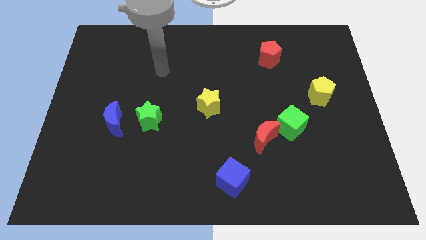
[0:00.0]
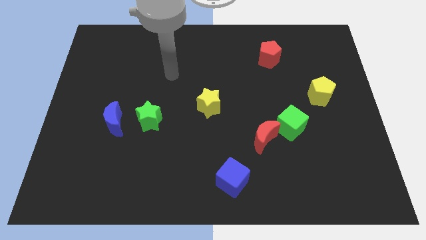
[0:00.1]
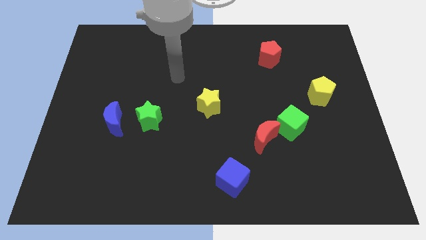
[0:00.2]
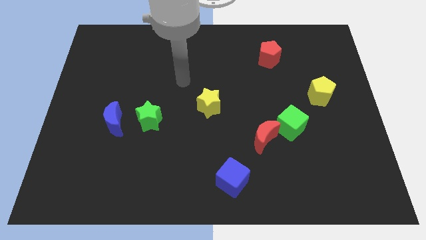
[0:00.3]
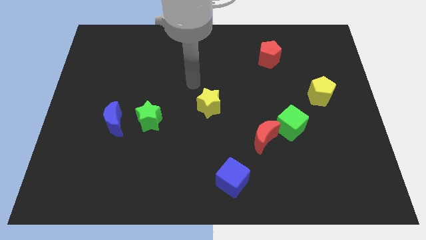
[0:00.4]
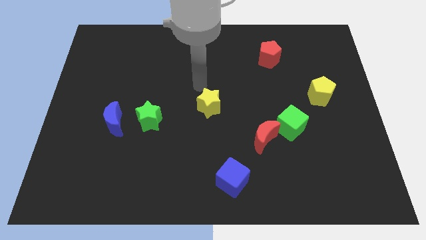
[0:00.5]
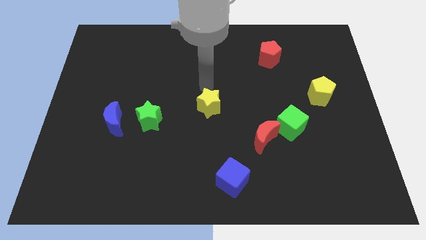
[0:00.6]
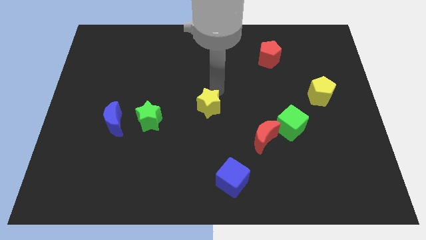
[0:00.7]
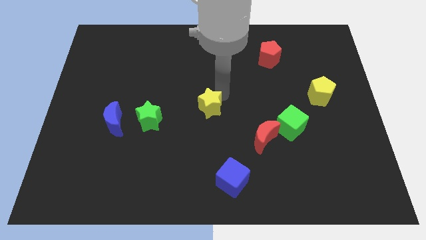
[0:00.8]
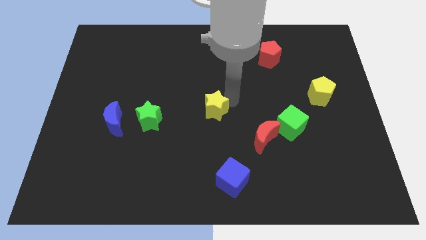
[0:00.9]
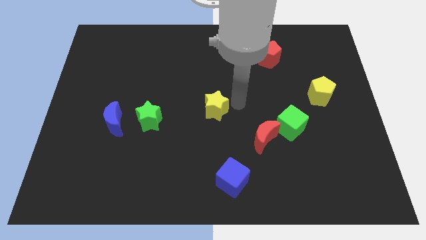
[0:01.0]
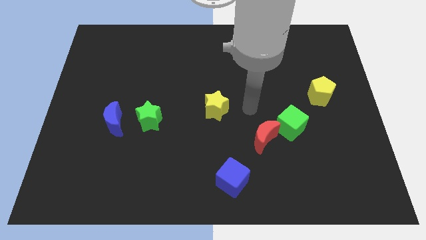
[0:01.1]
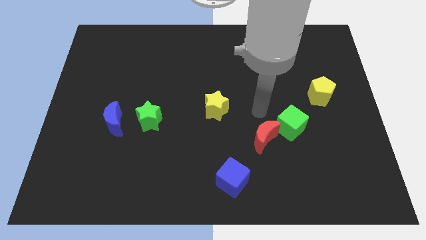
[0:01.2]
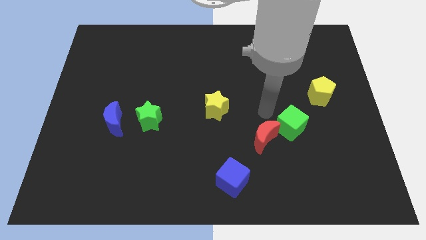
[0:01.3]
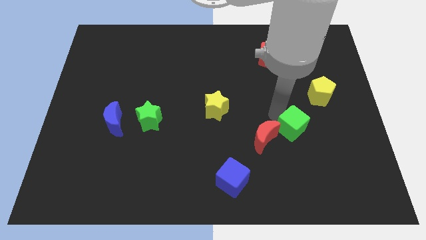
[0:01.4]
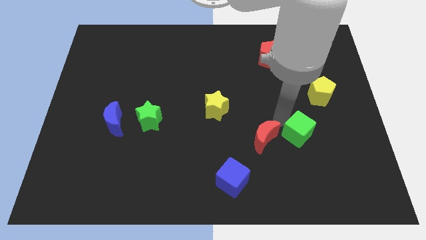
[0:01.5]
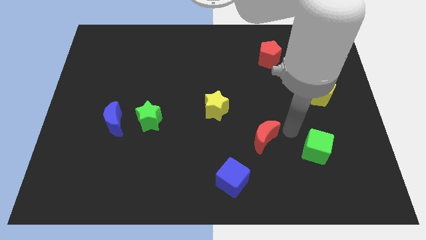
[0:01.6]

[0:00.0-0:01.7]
move the red moon away from the green cube

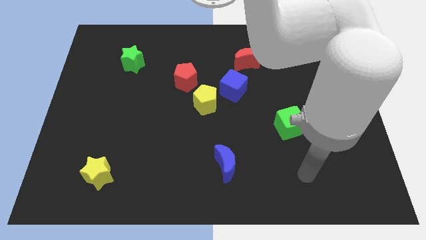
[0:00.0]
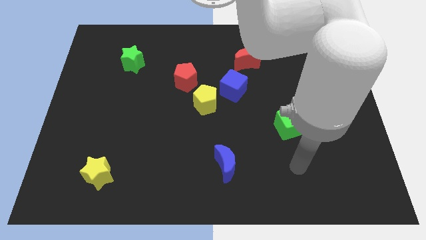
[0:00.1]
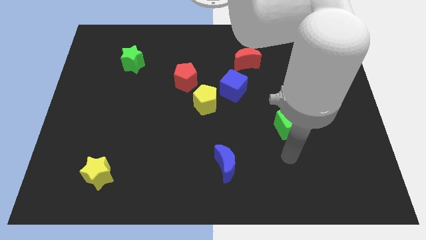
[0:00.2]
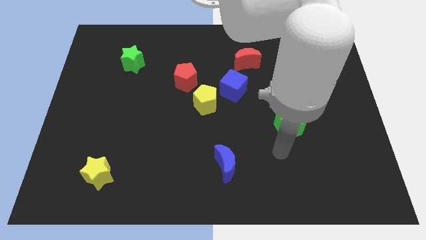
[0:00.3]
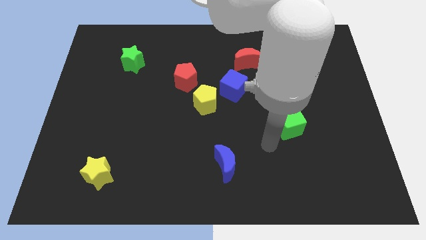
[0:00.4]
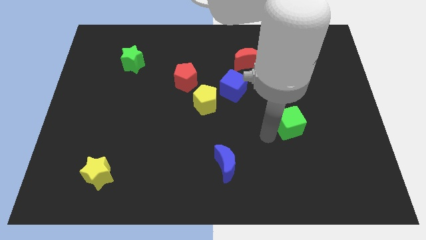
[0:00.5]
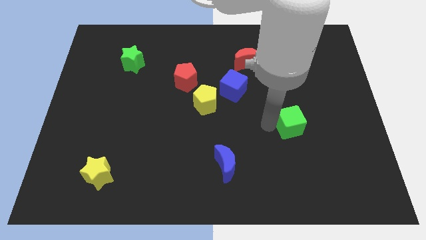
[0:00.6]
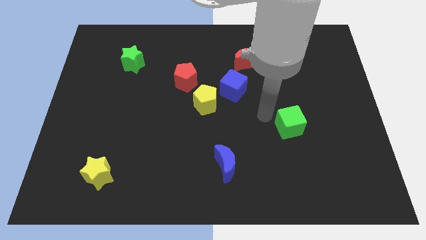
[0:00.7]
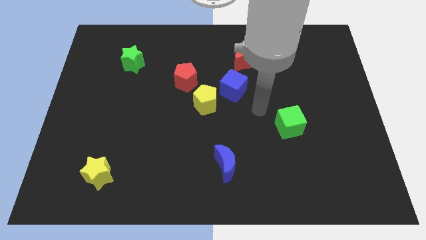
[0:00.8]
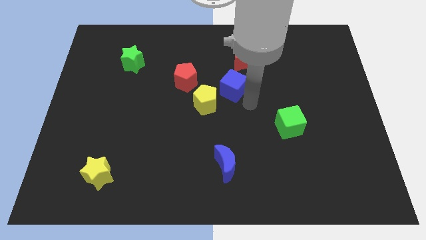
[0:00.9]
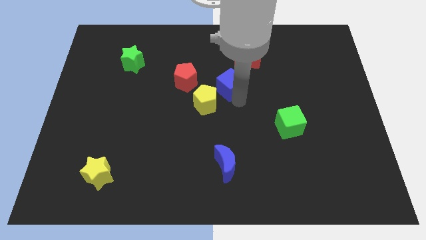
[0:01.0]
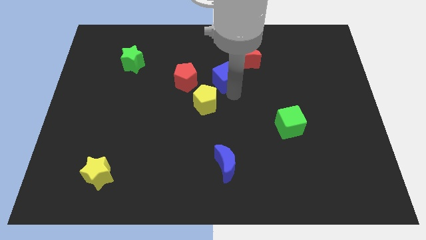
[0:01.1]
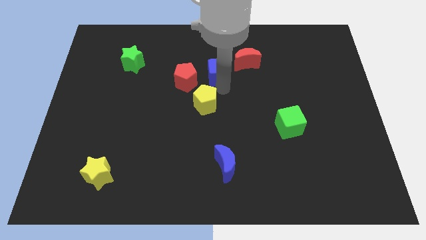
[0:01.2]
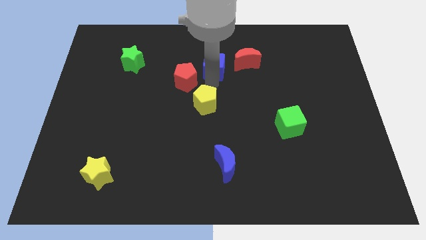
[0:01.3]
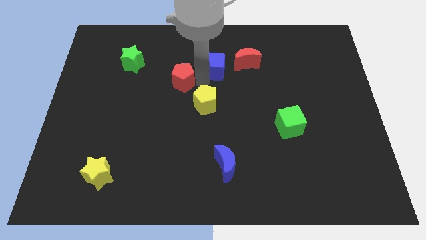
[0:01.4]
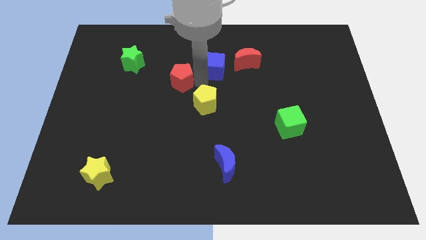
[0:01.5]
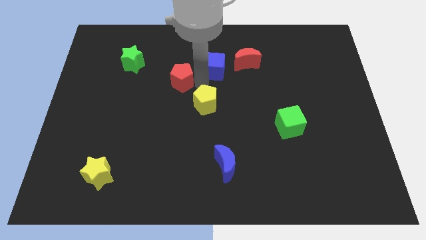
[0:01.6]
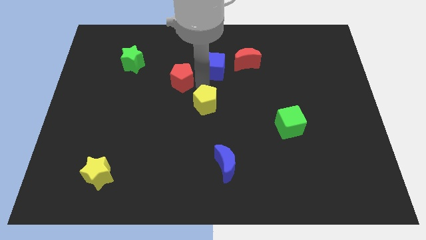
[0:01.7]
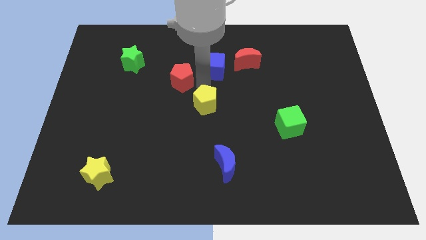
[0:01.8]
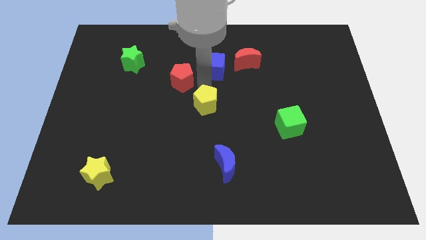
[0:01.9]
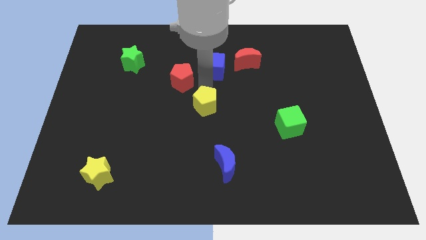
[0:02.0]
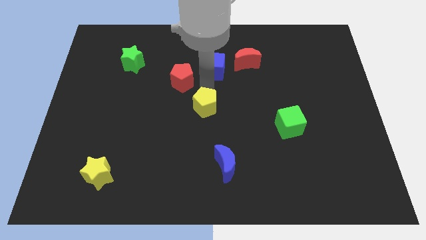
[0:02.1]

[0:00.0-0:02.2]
separate the yellow pentagon from the blue cube and red pentagon

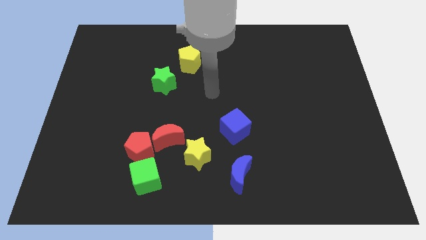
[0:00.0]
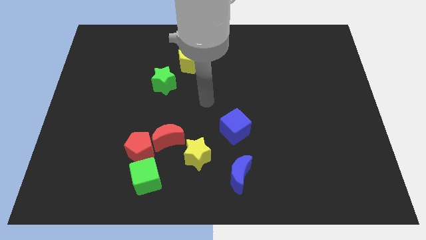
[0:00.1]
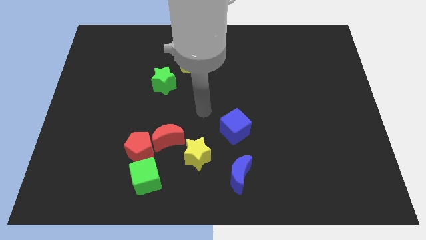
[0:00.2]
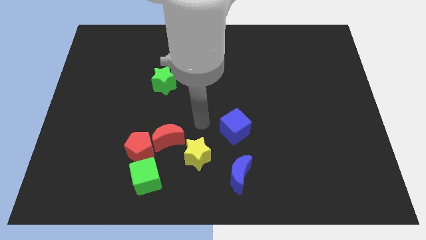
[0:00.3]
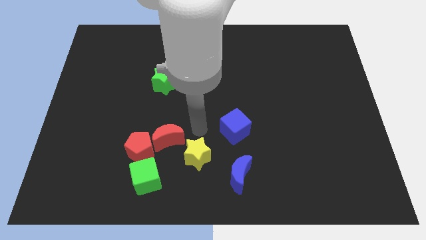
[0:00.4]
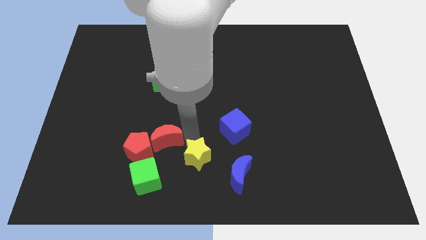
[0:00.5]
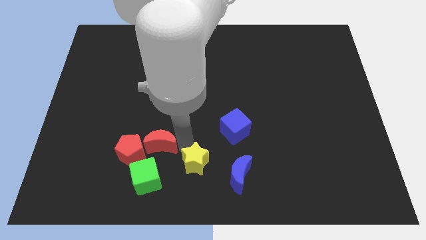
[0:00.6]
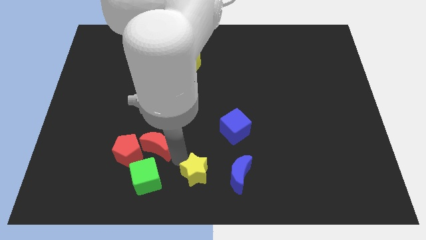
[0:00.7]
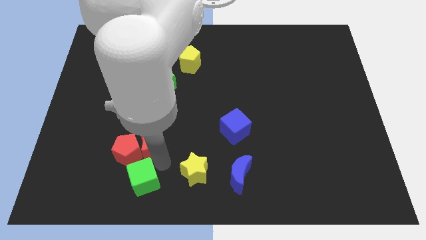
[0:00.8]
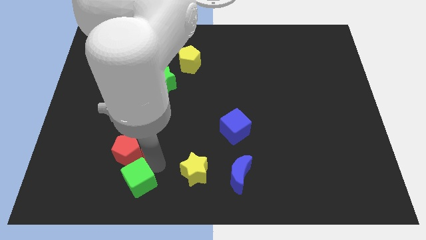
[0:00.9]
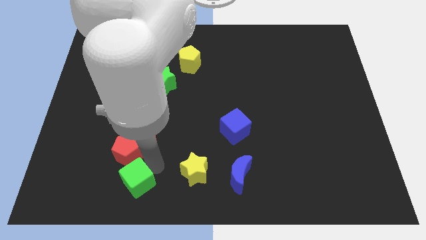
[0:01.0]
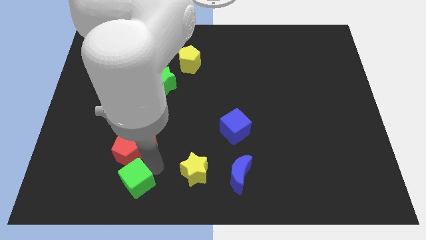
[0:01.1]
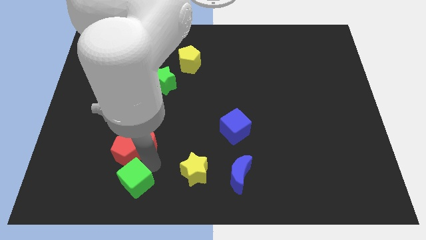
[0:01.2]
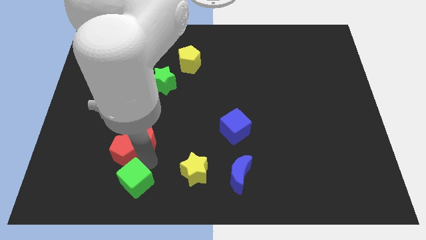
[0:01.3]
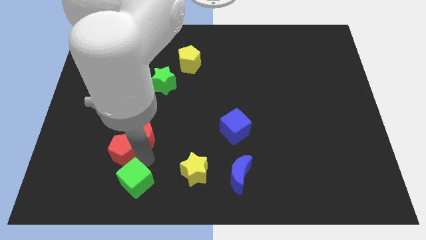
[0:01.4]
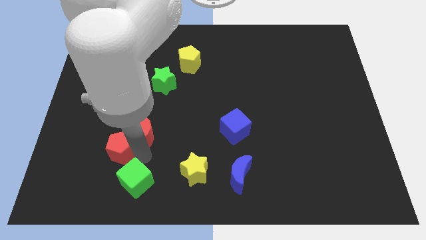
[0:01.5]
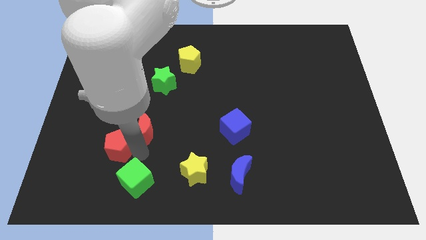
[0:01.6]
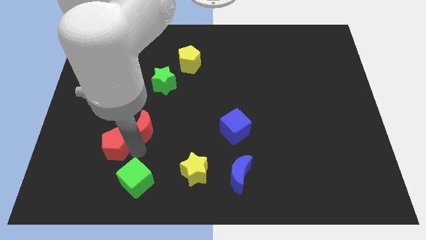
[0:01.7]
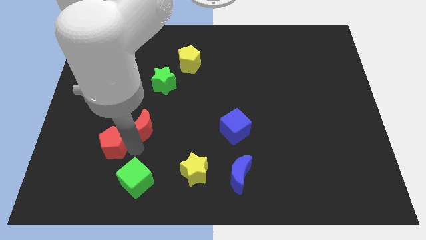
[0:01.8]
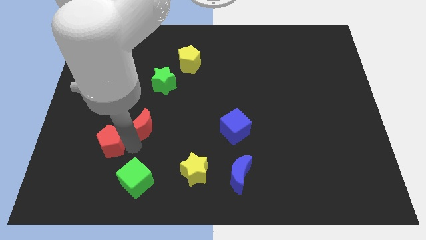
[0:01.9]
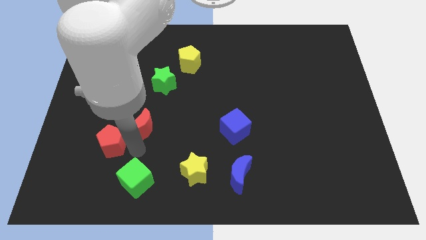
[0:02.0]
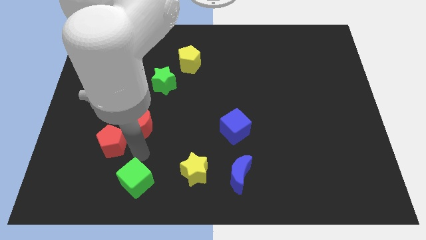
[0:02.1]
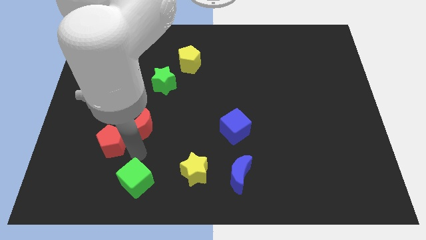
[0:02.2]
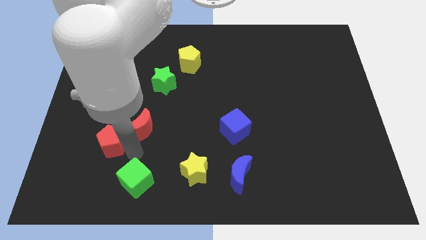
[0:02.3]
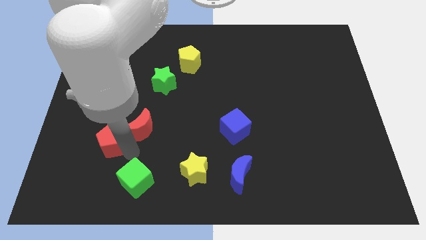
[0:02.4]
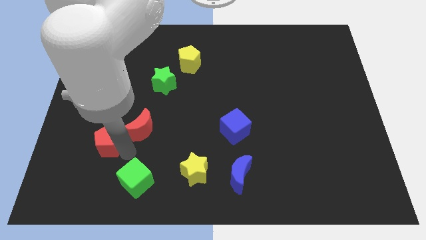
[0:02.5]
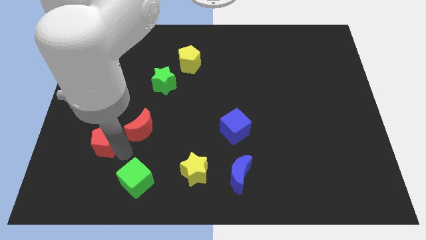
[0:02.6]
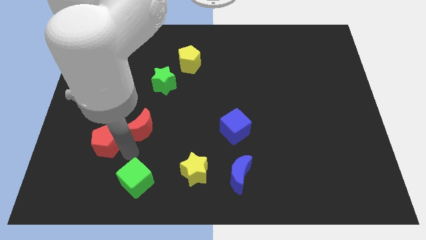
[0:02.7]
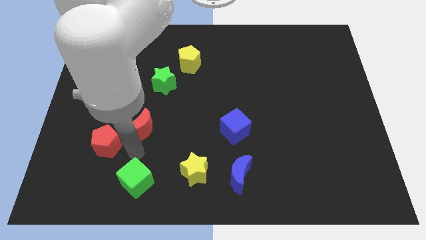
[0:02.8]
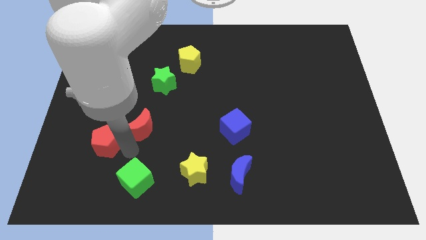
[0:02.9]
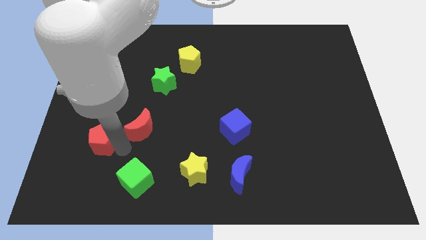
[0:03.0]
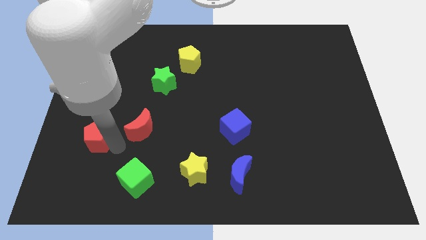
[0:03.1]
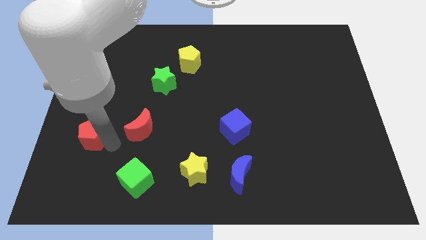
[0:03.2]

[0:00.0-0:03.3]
pull the red pentagon apart from the red moon and green cube

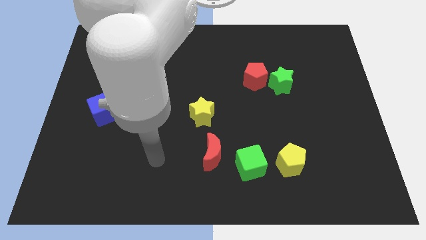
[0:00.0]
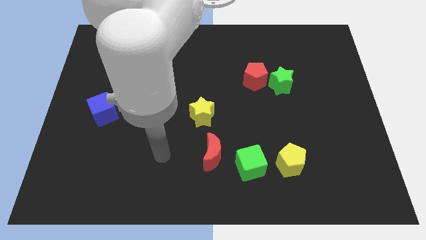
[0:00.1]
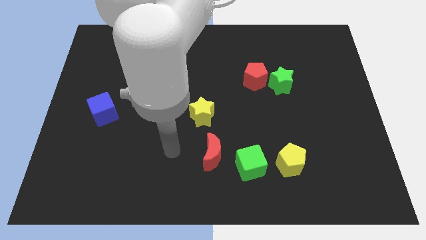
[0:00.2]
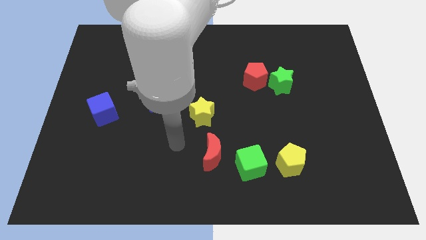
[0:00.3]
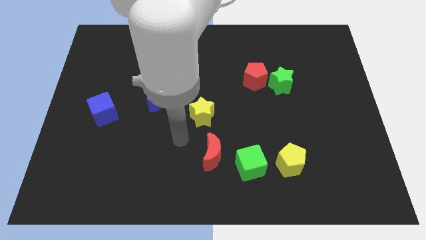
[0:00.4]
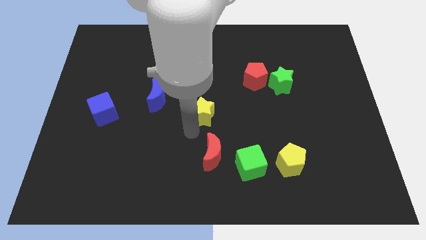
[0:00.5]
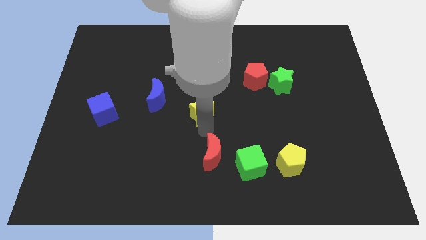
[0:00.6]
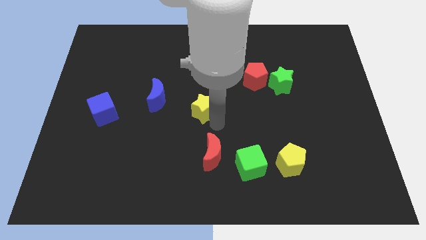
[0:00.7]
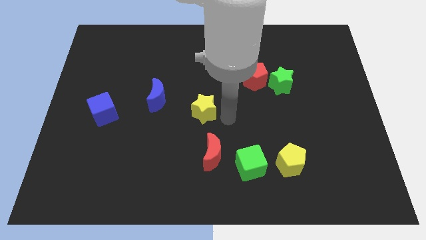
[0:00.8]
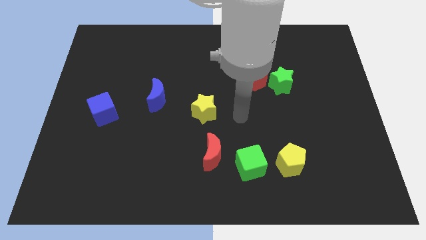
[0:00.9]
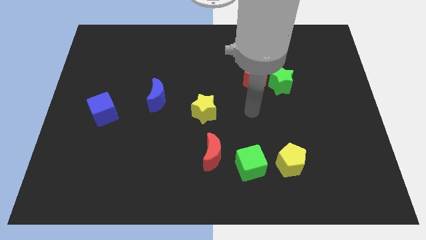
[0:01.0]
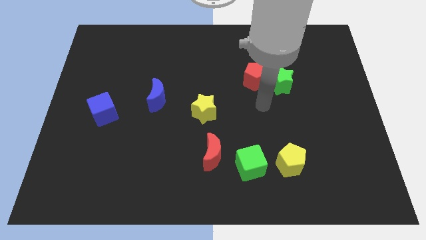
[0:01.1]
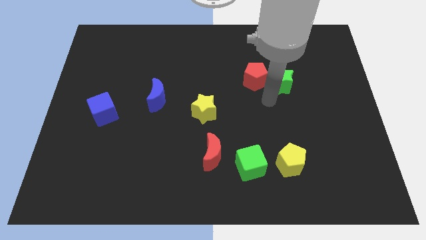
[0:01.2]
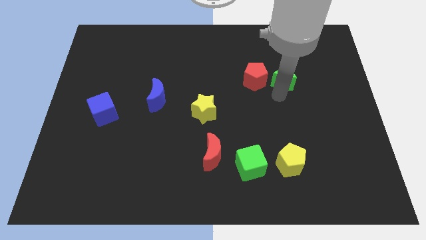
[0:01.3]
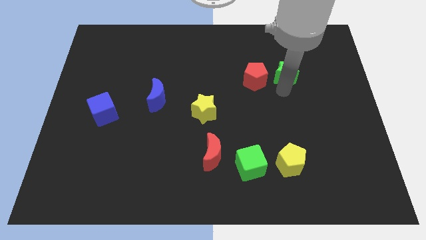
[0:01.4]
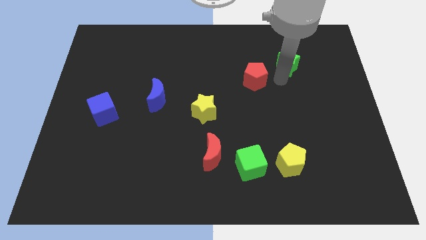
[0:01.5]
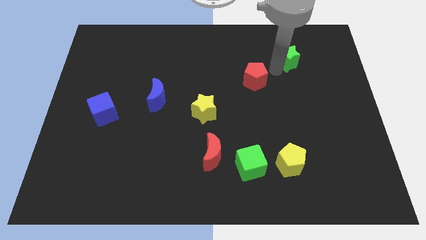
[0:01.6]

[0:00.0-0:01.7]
move the red pentagon away from the green star

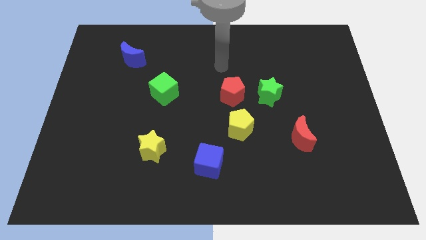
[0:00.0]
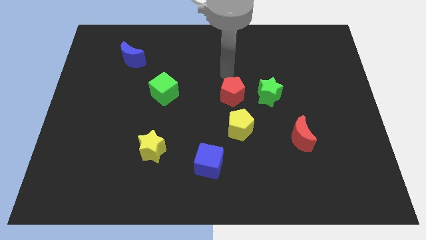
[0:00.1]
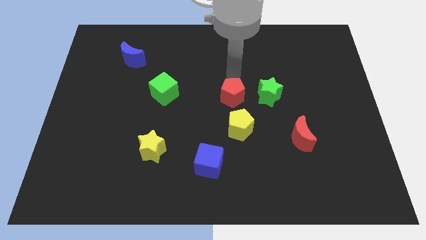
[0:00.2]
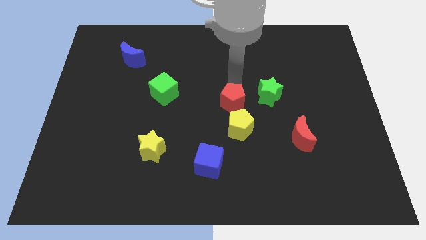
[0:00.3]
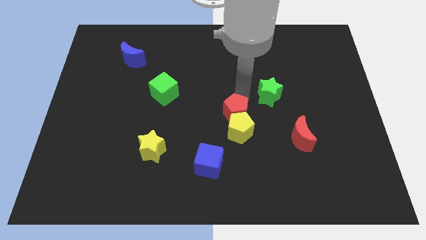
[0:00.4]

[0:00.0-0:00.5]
pull the green star apart from the red pentagon

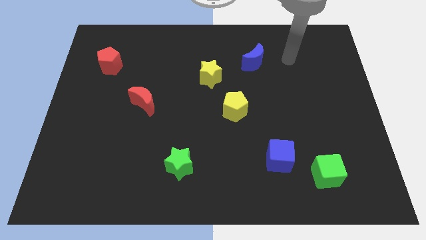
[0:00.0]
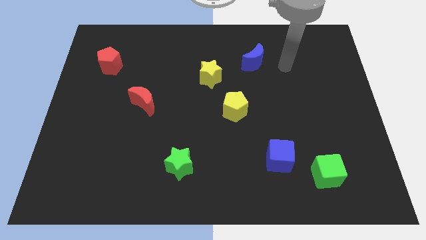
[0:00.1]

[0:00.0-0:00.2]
move the blue cube away from the green cube
